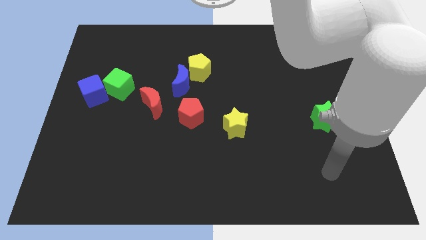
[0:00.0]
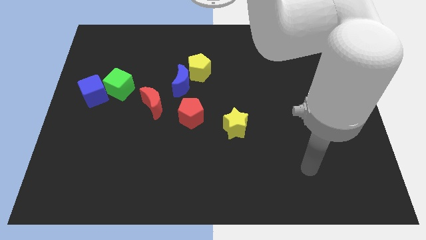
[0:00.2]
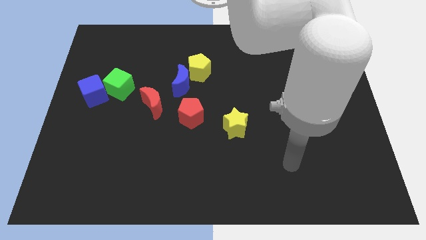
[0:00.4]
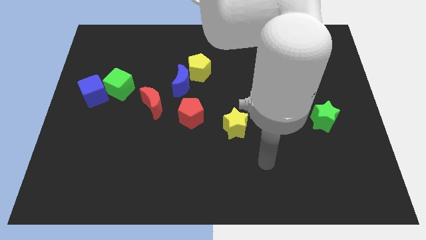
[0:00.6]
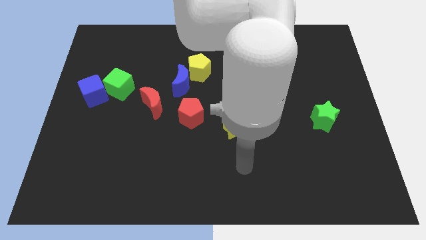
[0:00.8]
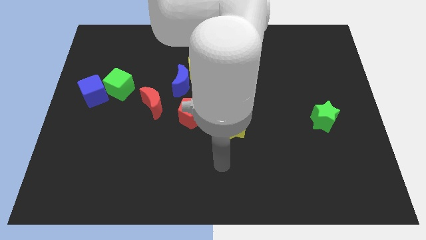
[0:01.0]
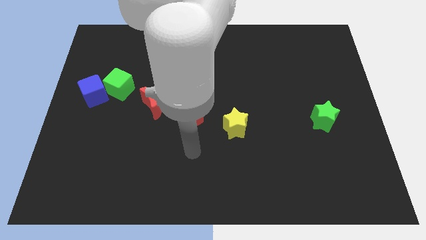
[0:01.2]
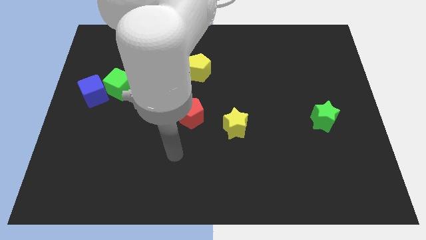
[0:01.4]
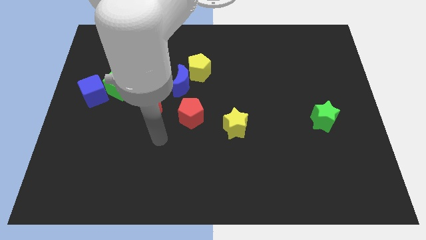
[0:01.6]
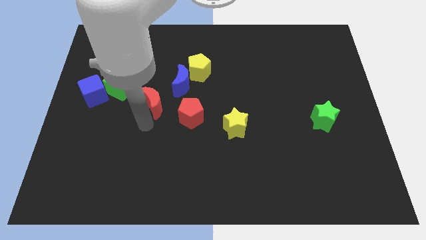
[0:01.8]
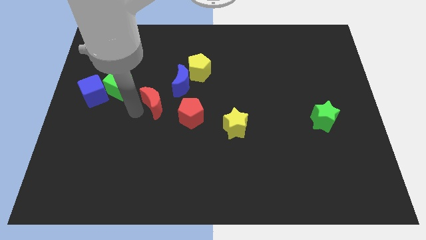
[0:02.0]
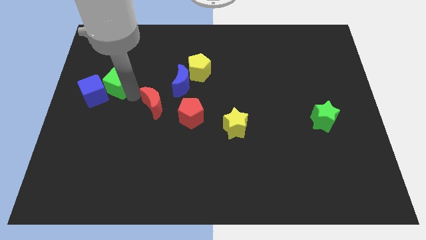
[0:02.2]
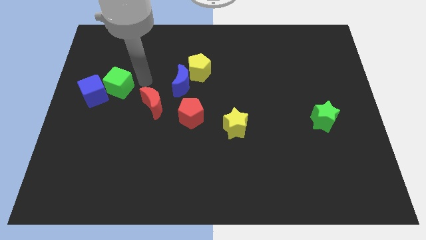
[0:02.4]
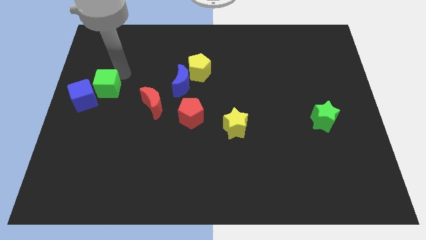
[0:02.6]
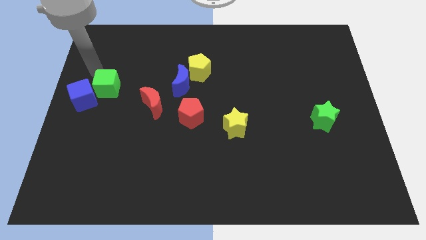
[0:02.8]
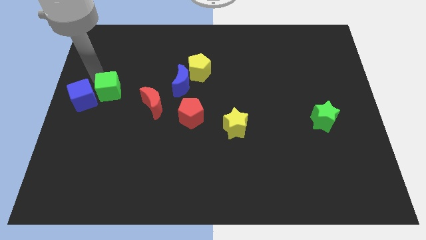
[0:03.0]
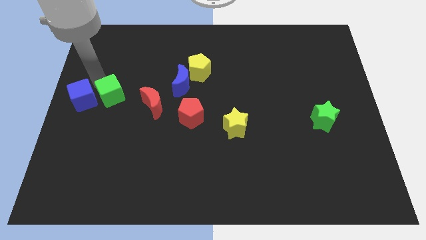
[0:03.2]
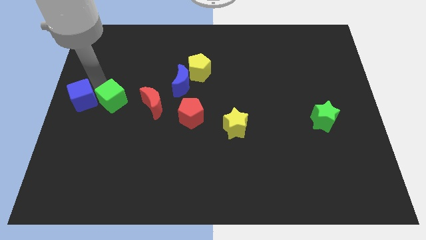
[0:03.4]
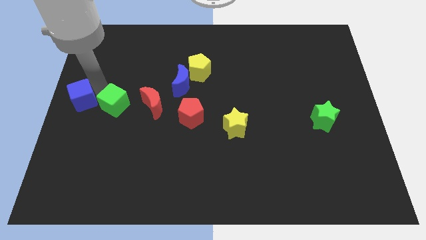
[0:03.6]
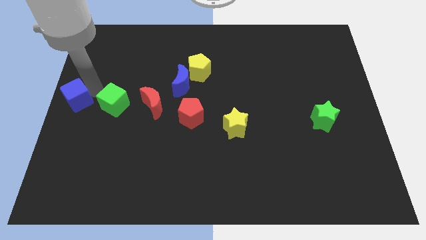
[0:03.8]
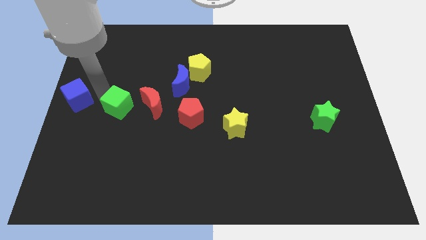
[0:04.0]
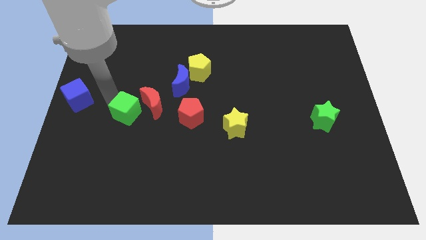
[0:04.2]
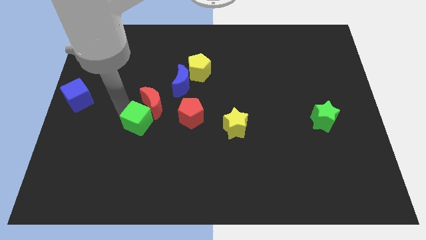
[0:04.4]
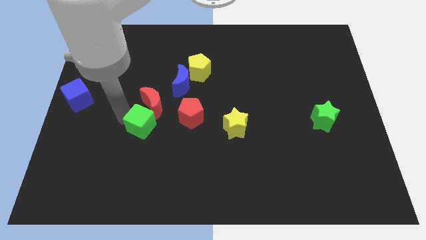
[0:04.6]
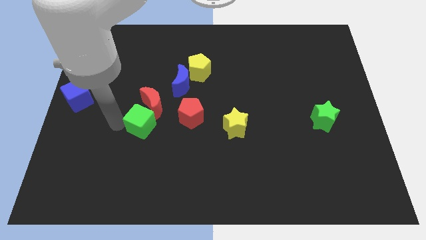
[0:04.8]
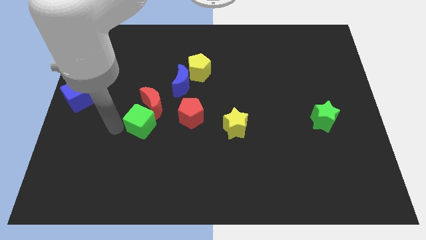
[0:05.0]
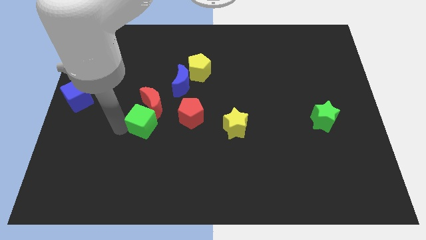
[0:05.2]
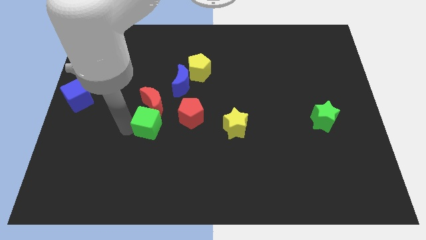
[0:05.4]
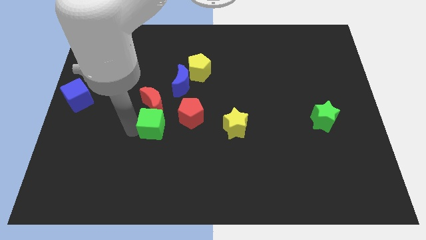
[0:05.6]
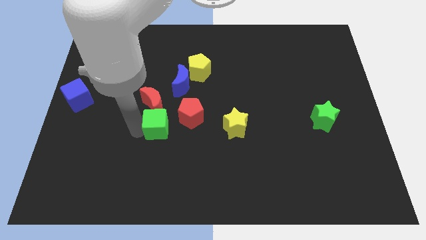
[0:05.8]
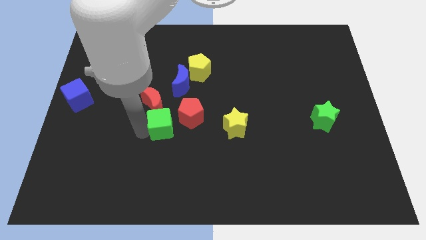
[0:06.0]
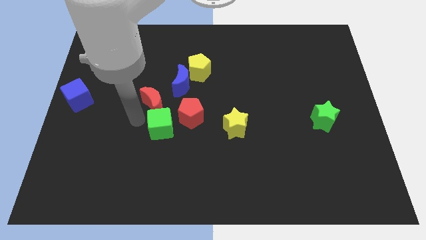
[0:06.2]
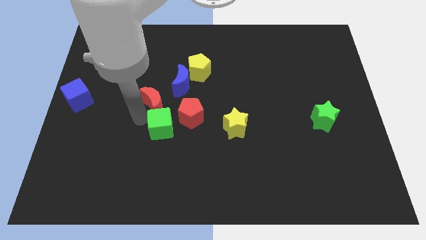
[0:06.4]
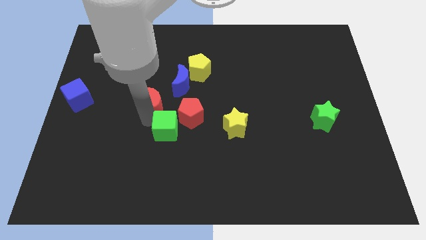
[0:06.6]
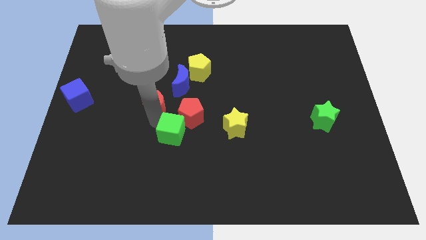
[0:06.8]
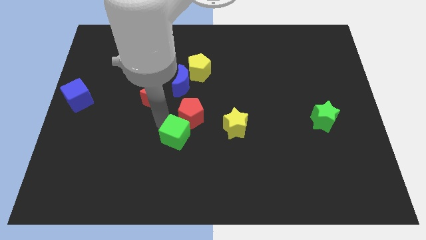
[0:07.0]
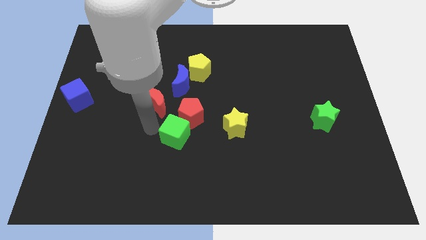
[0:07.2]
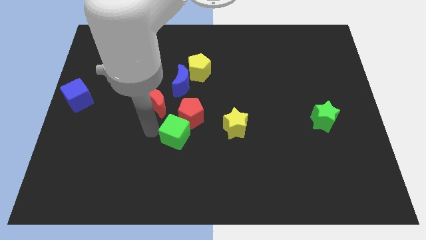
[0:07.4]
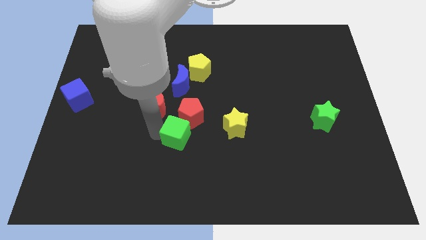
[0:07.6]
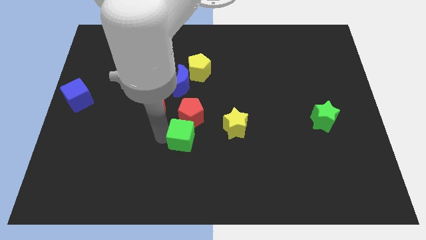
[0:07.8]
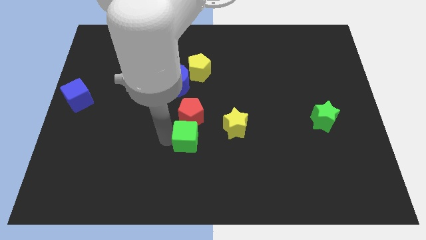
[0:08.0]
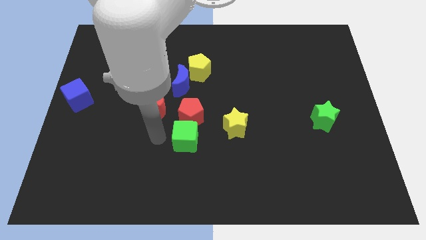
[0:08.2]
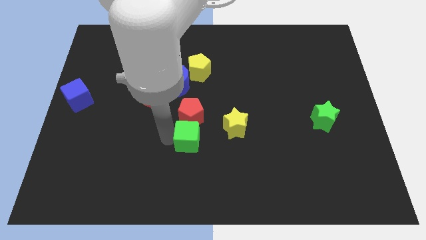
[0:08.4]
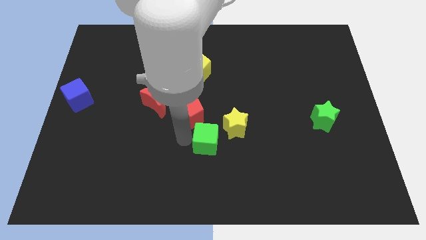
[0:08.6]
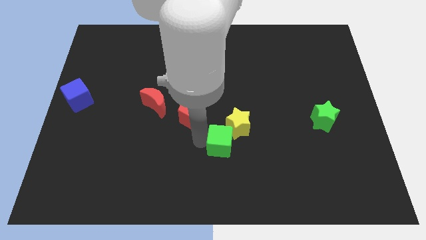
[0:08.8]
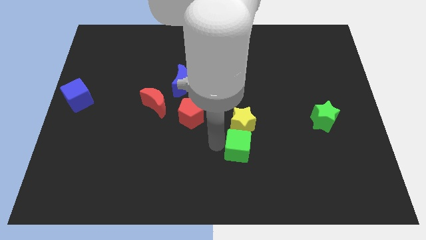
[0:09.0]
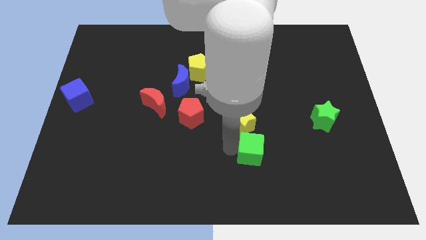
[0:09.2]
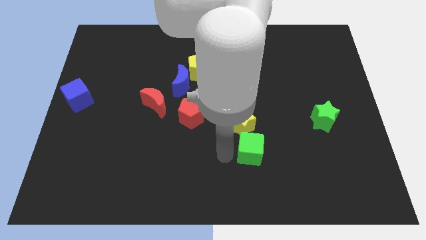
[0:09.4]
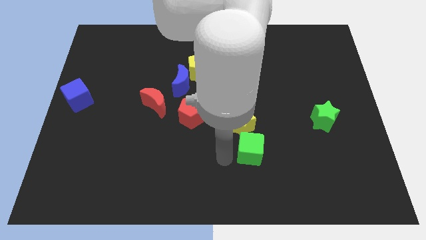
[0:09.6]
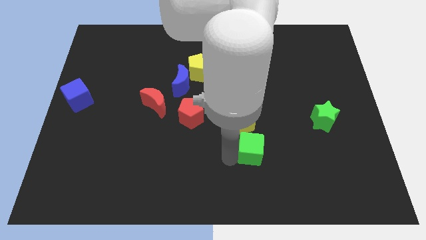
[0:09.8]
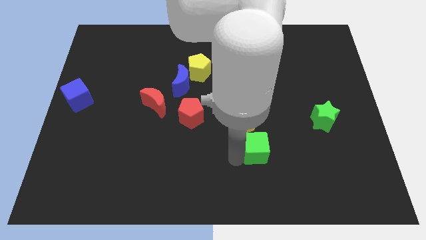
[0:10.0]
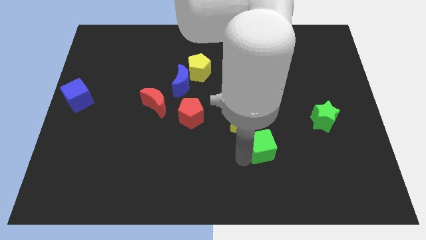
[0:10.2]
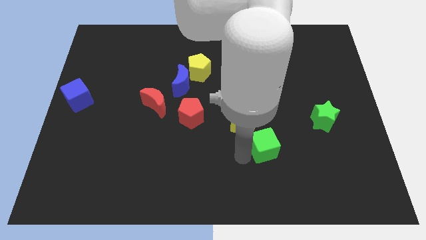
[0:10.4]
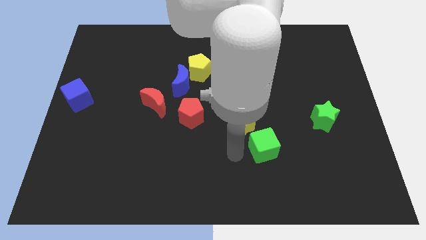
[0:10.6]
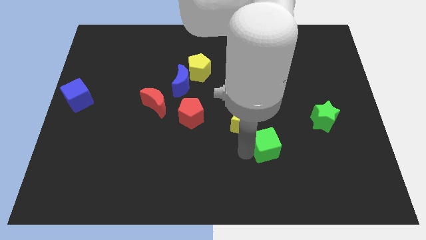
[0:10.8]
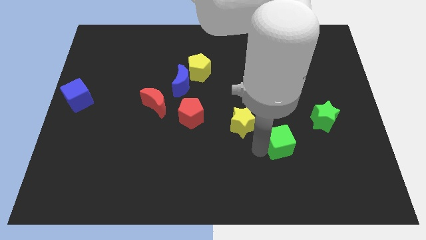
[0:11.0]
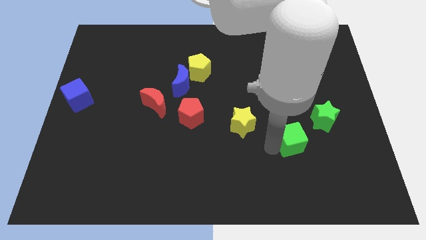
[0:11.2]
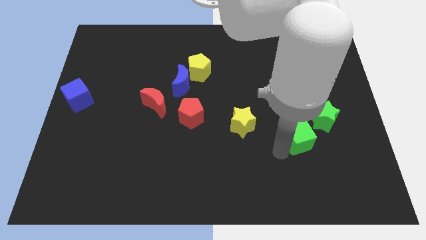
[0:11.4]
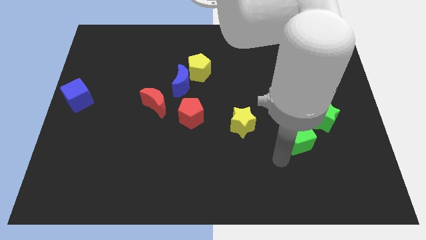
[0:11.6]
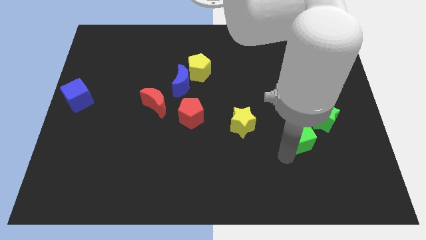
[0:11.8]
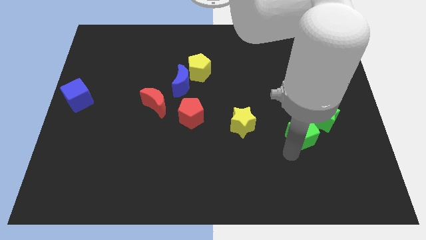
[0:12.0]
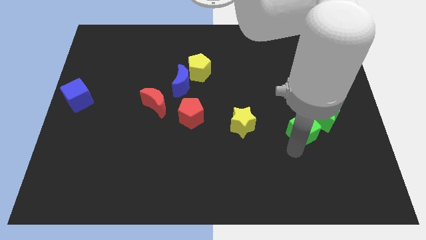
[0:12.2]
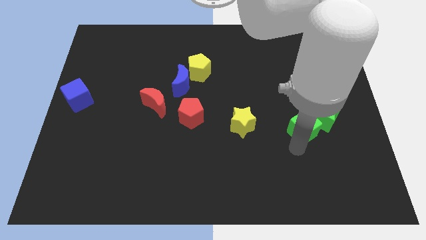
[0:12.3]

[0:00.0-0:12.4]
put the green cube next to the green star

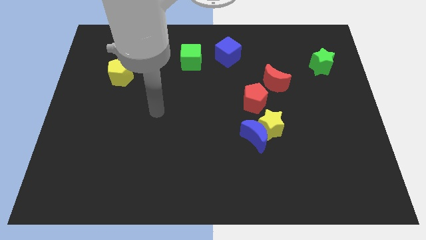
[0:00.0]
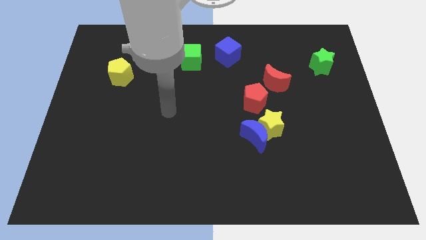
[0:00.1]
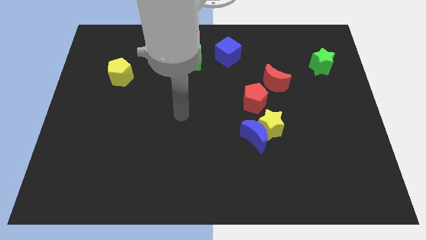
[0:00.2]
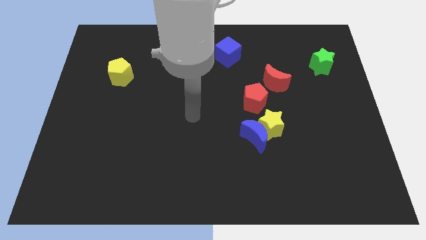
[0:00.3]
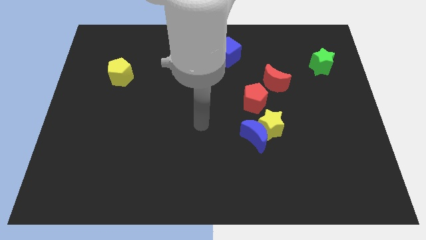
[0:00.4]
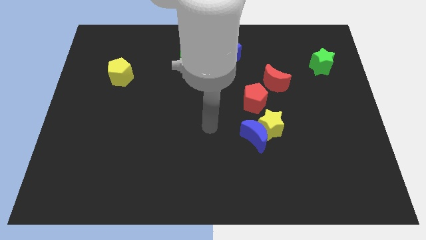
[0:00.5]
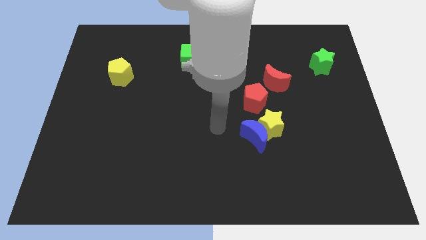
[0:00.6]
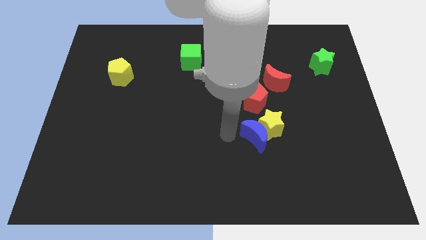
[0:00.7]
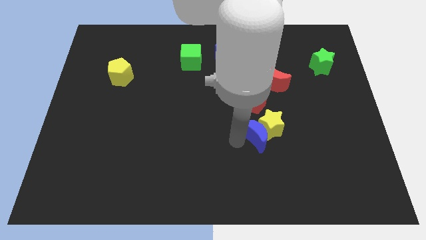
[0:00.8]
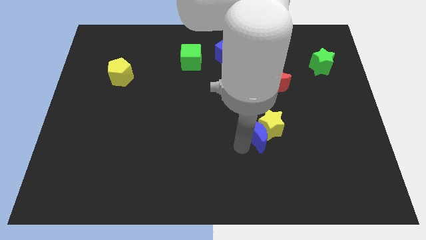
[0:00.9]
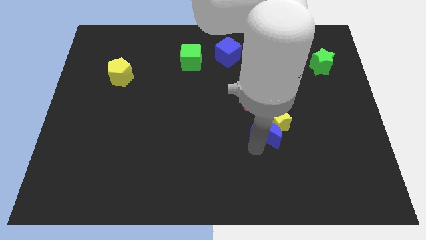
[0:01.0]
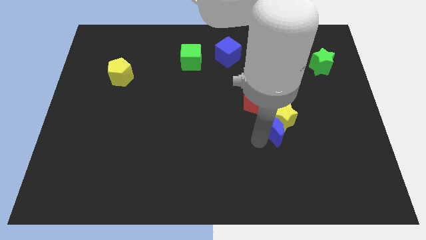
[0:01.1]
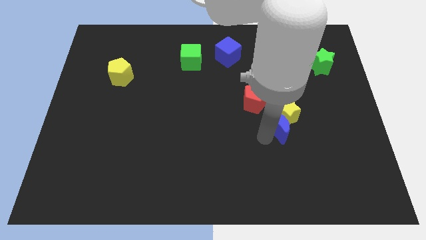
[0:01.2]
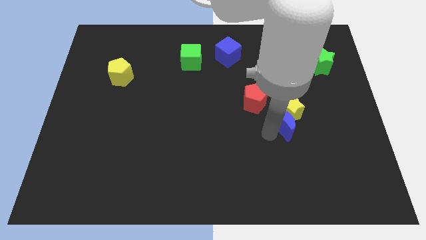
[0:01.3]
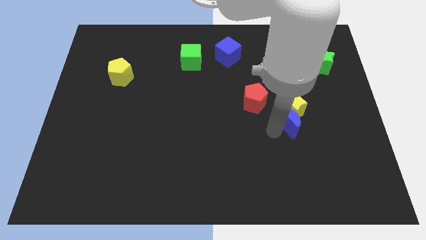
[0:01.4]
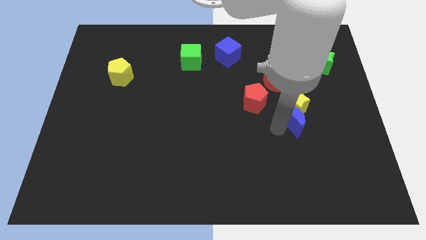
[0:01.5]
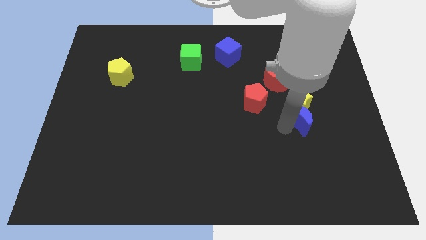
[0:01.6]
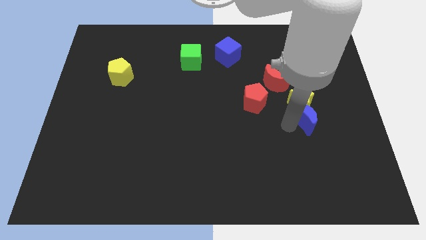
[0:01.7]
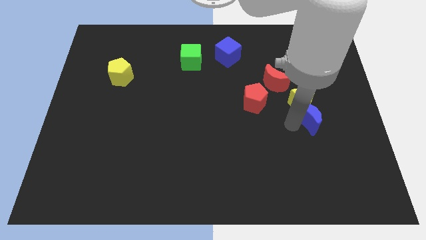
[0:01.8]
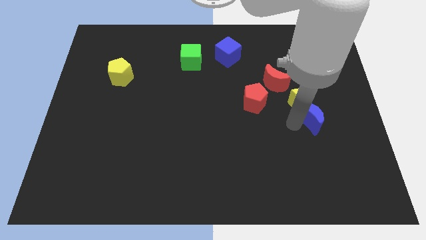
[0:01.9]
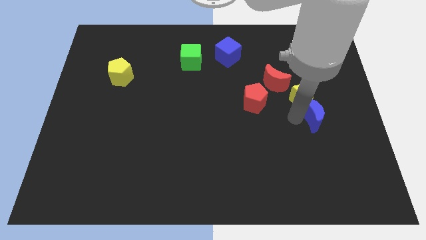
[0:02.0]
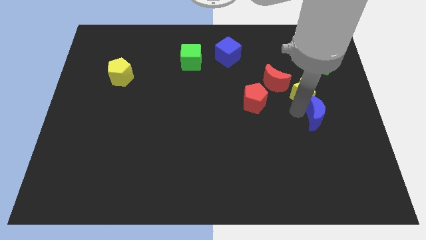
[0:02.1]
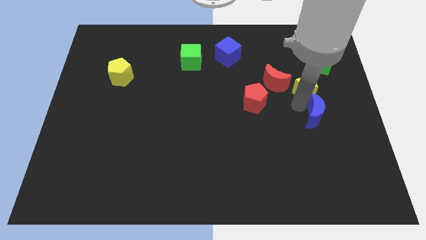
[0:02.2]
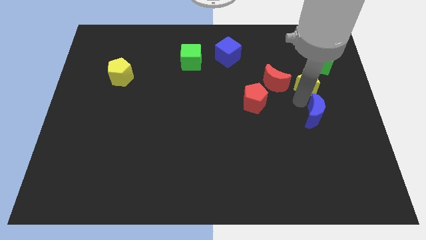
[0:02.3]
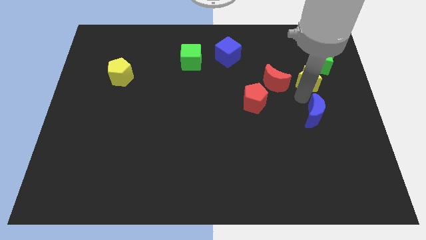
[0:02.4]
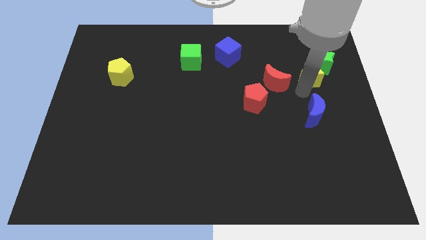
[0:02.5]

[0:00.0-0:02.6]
slide the yellow star close to the green star
